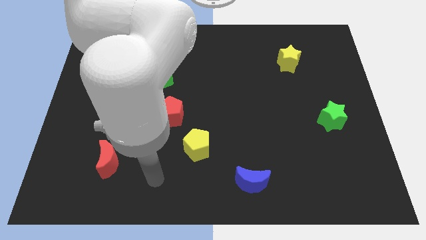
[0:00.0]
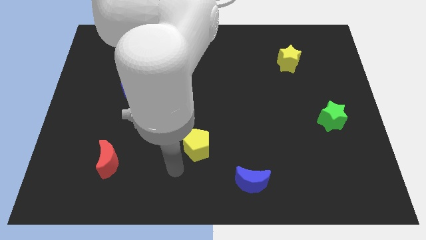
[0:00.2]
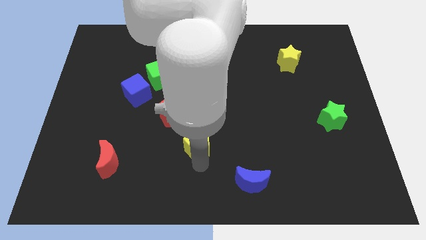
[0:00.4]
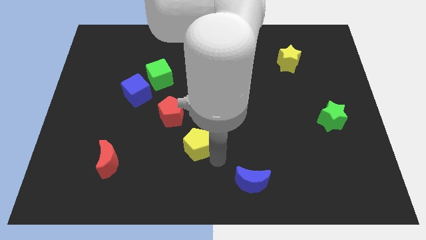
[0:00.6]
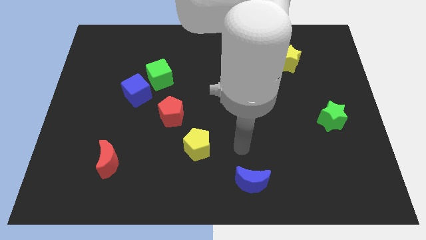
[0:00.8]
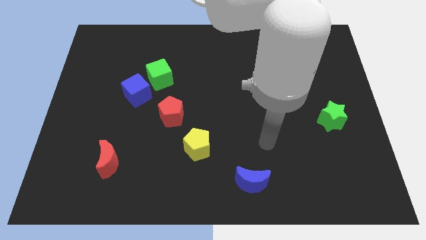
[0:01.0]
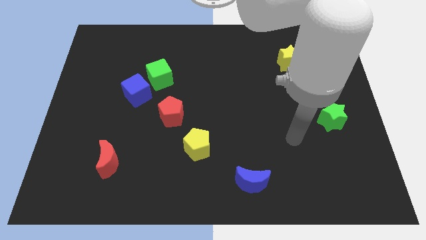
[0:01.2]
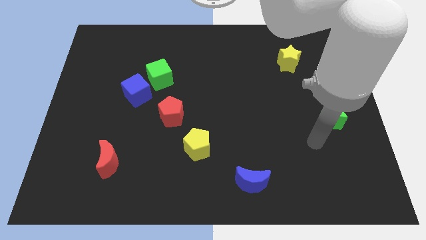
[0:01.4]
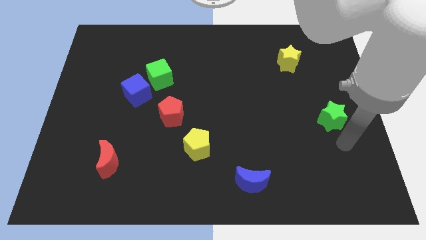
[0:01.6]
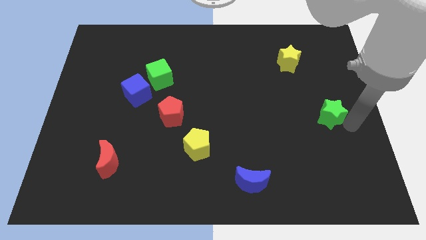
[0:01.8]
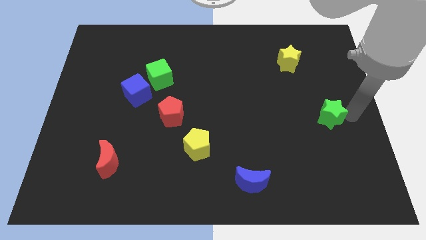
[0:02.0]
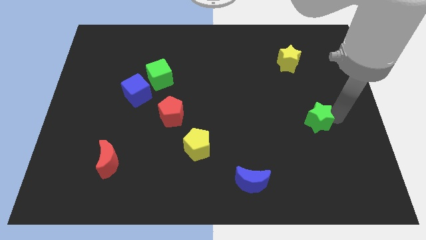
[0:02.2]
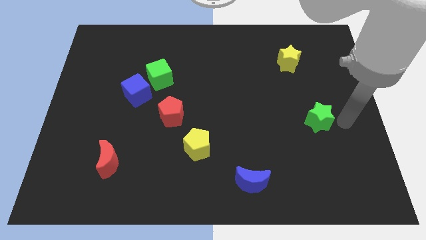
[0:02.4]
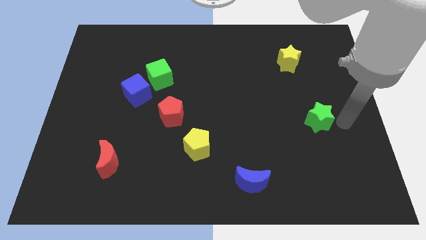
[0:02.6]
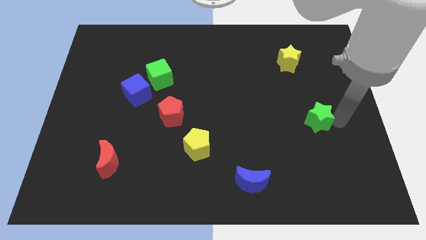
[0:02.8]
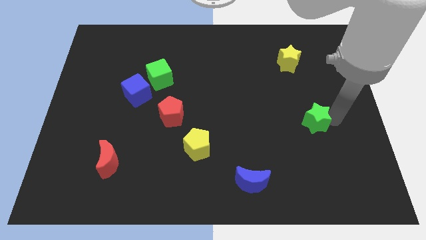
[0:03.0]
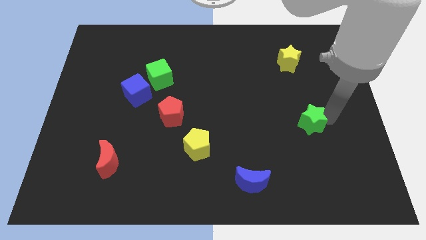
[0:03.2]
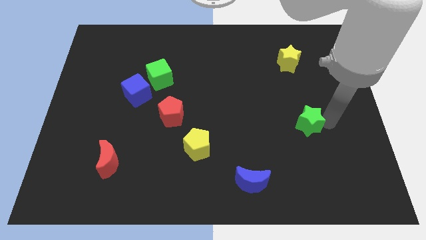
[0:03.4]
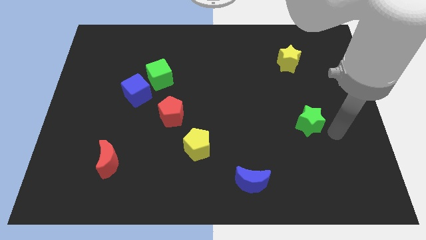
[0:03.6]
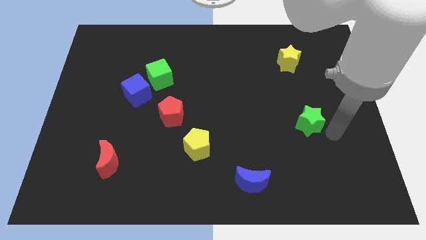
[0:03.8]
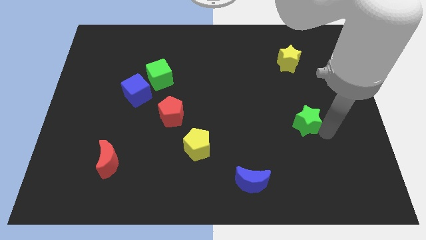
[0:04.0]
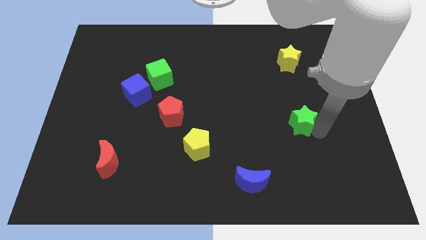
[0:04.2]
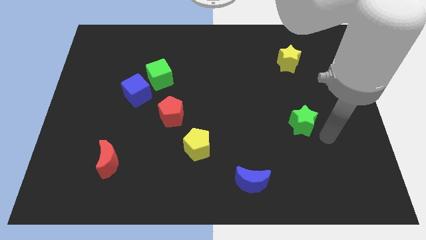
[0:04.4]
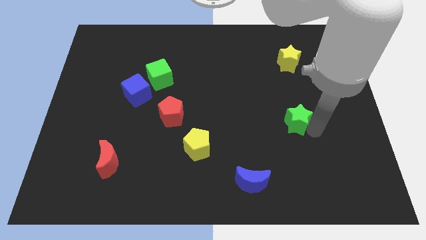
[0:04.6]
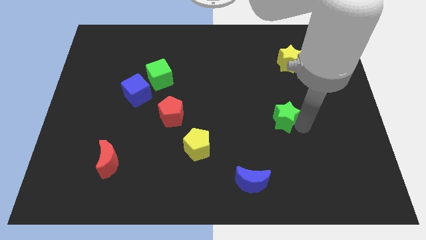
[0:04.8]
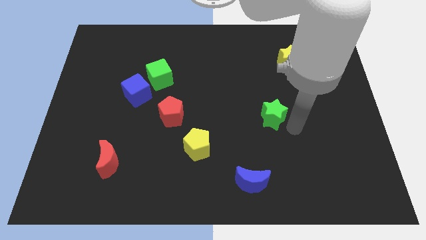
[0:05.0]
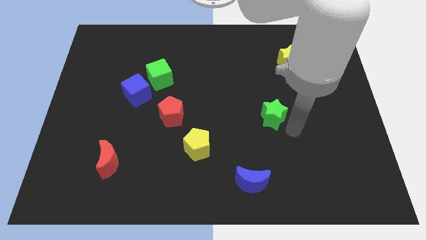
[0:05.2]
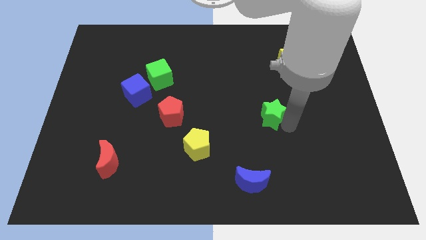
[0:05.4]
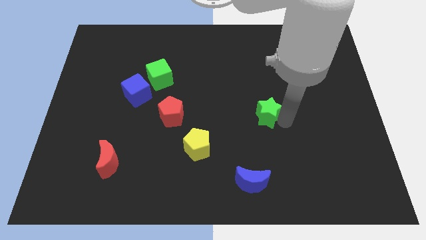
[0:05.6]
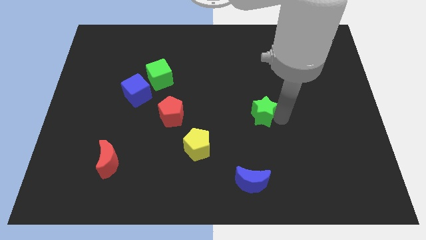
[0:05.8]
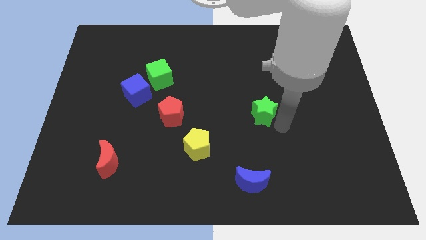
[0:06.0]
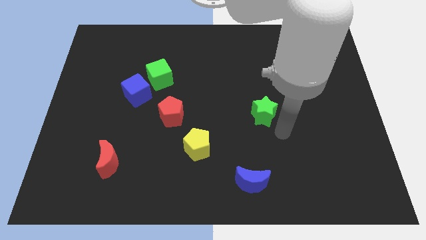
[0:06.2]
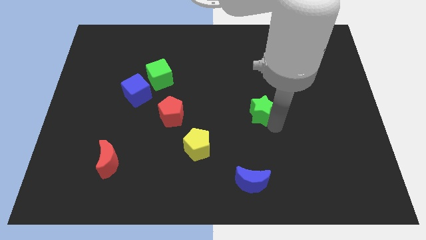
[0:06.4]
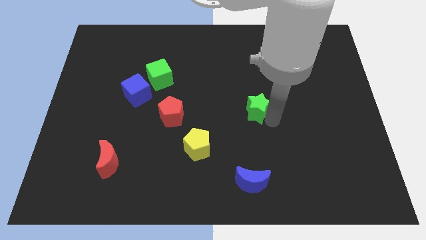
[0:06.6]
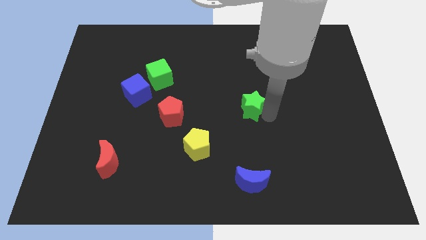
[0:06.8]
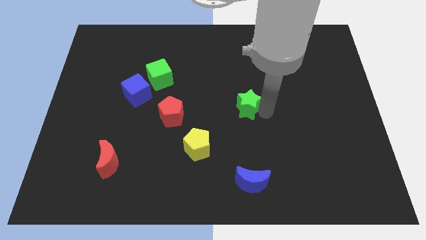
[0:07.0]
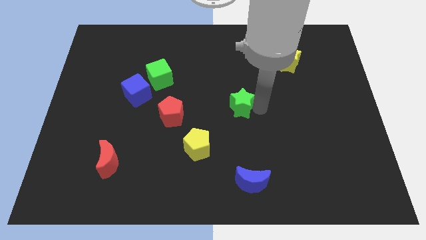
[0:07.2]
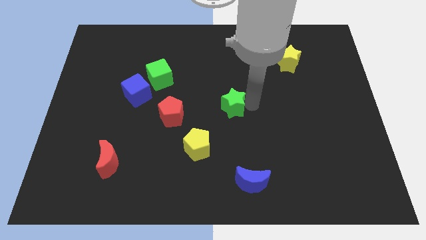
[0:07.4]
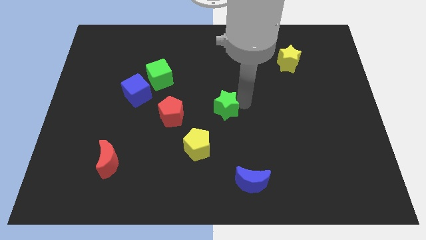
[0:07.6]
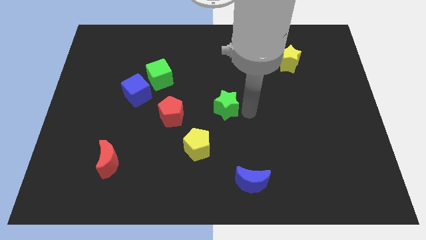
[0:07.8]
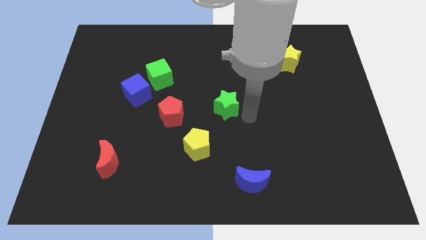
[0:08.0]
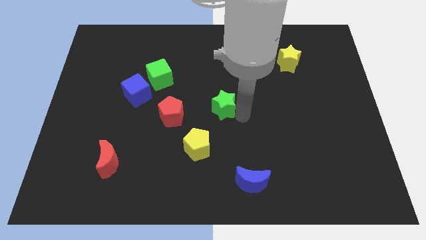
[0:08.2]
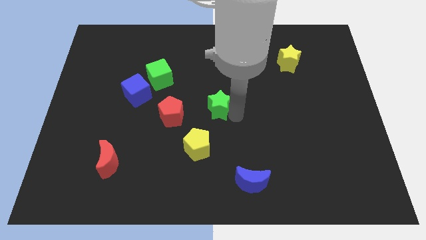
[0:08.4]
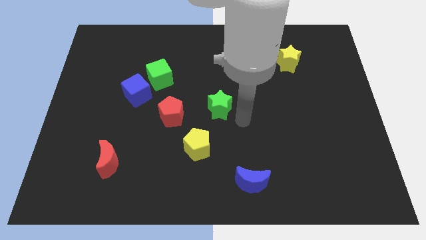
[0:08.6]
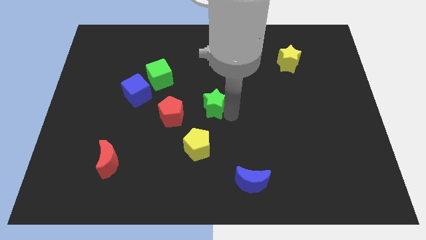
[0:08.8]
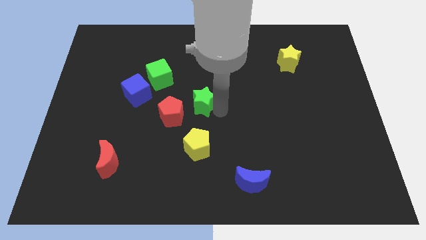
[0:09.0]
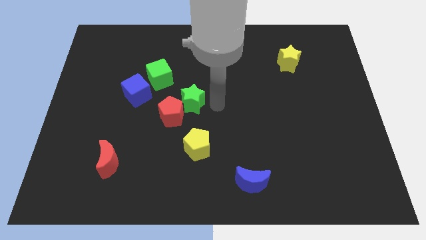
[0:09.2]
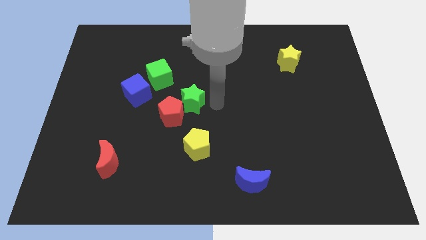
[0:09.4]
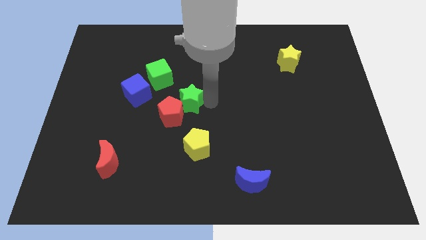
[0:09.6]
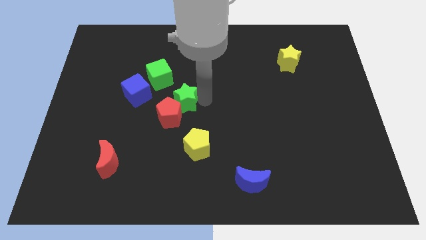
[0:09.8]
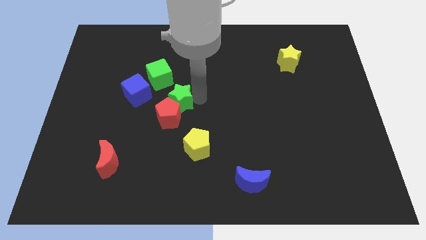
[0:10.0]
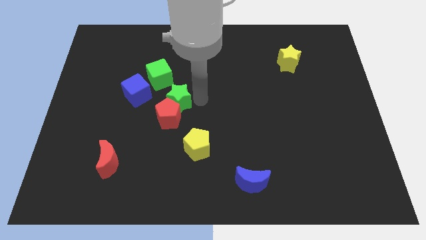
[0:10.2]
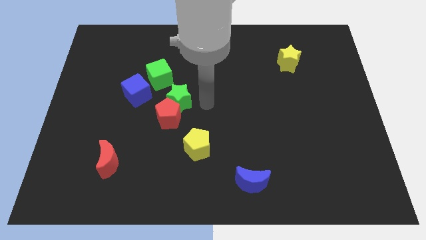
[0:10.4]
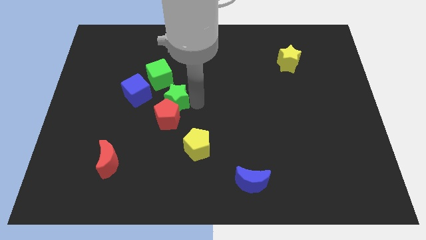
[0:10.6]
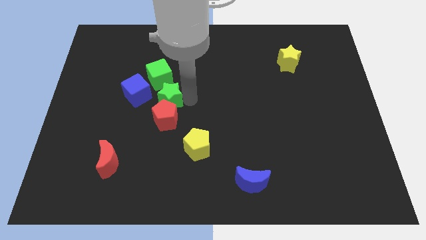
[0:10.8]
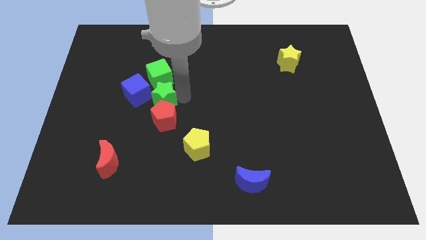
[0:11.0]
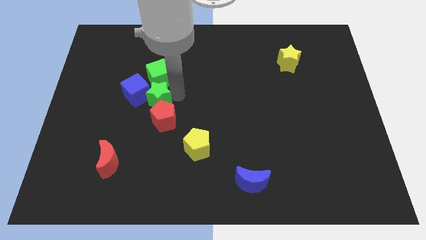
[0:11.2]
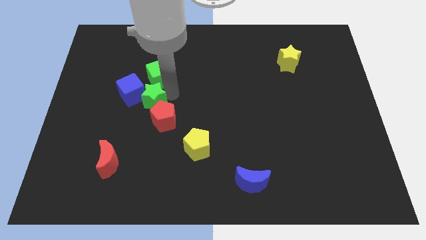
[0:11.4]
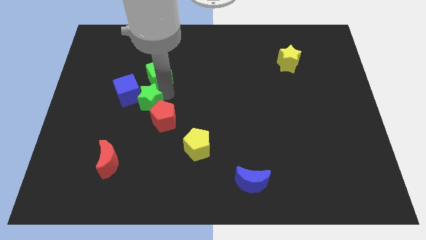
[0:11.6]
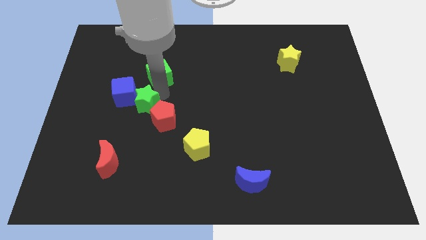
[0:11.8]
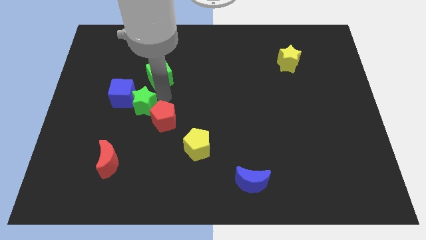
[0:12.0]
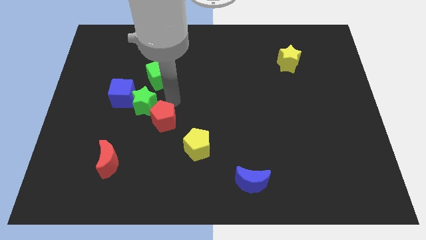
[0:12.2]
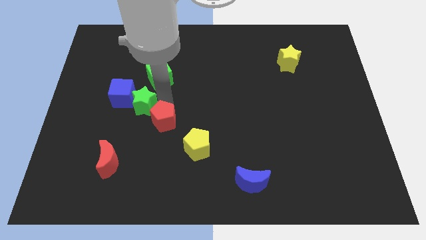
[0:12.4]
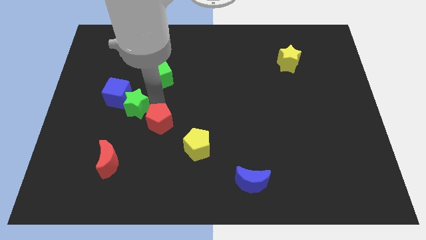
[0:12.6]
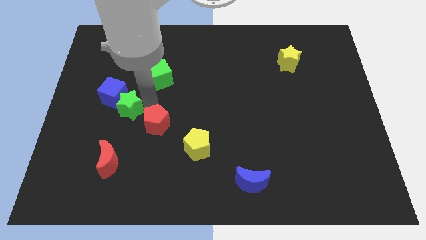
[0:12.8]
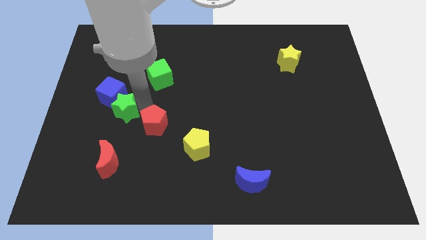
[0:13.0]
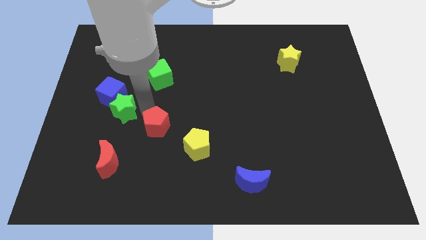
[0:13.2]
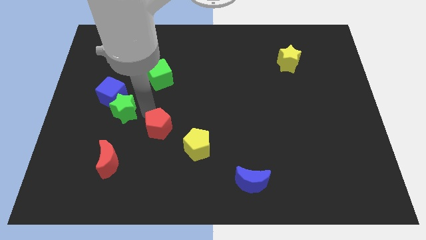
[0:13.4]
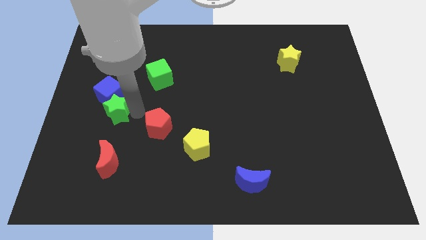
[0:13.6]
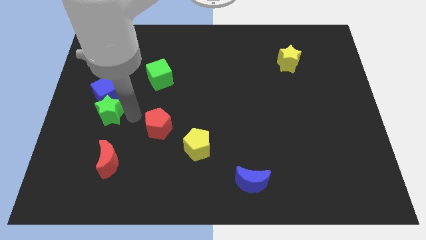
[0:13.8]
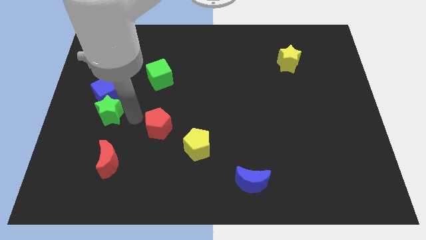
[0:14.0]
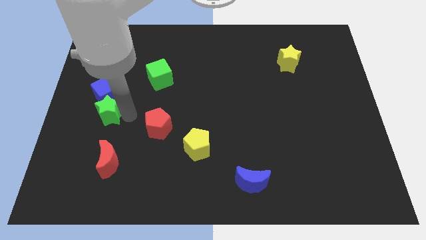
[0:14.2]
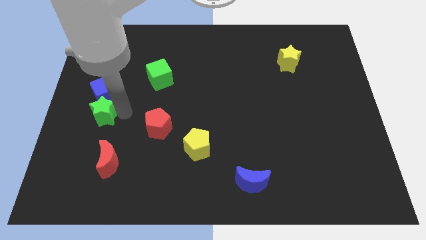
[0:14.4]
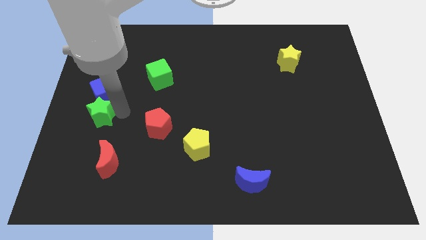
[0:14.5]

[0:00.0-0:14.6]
push the green star to the left side
